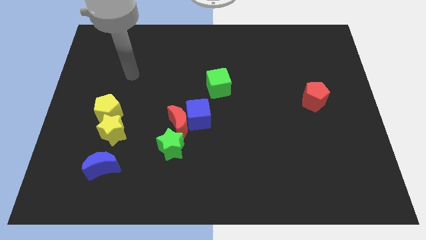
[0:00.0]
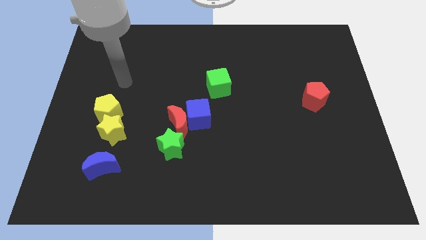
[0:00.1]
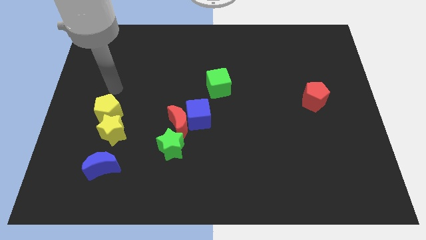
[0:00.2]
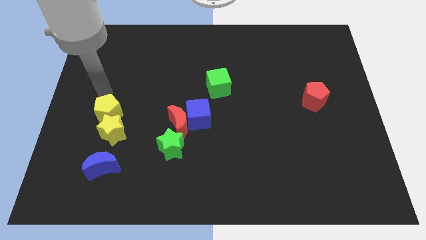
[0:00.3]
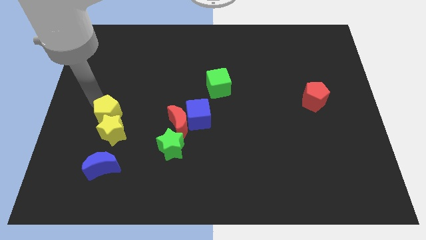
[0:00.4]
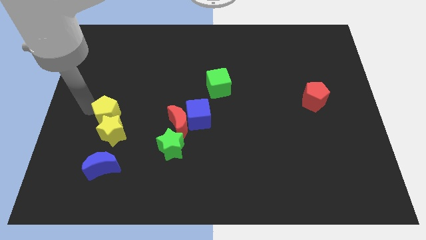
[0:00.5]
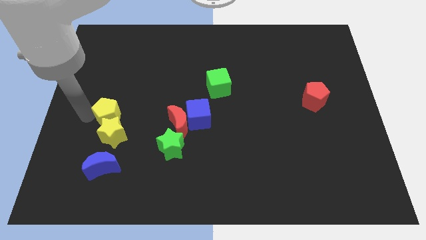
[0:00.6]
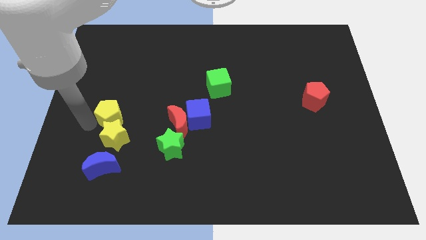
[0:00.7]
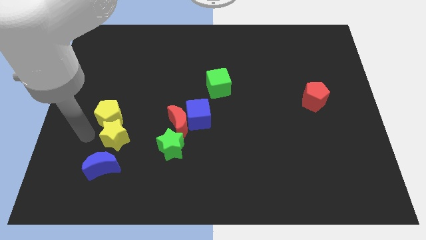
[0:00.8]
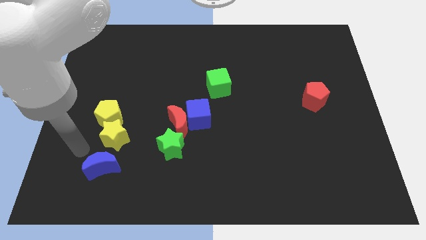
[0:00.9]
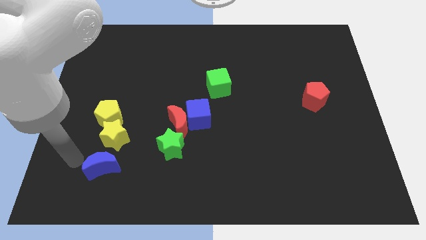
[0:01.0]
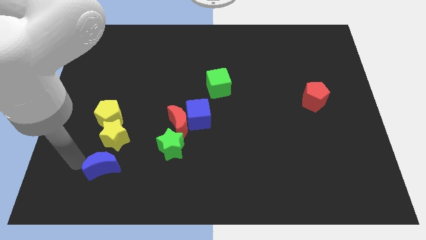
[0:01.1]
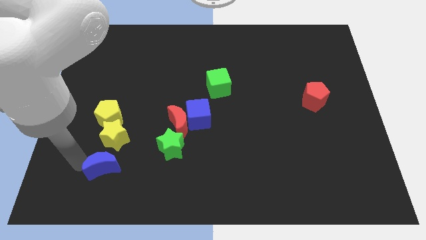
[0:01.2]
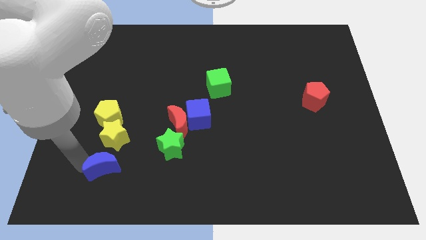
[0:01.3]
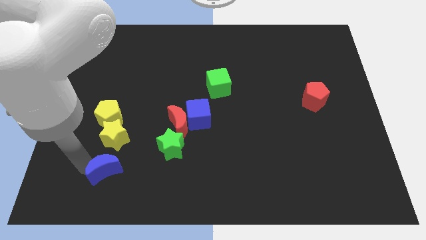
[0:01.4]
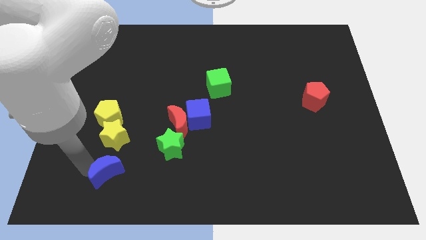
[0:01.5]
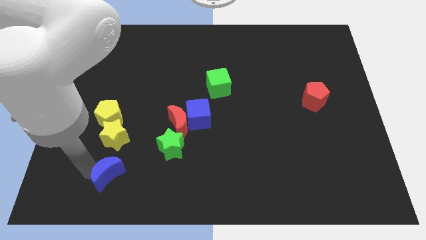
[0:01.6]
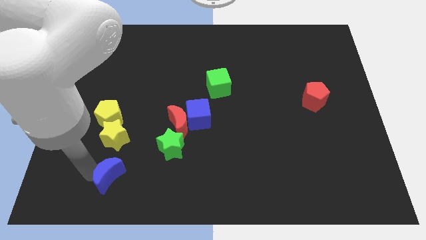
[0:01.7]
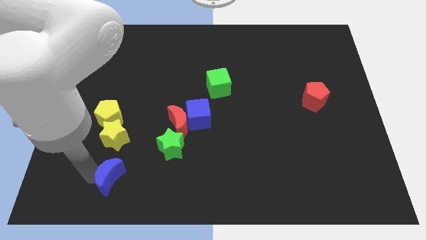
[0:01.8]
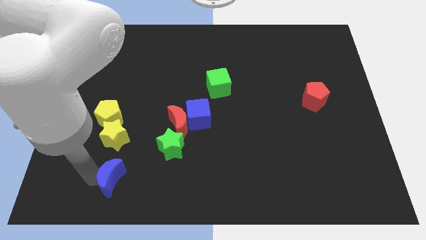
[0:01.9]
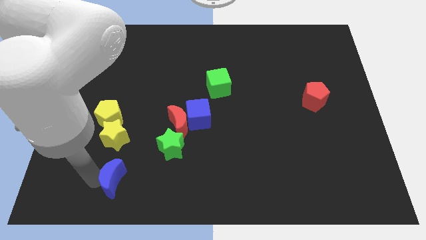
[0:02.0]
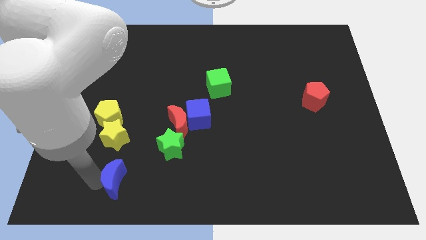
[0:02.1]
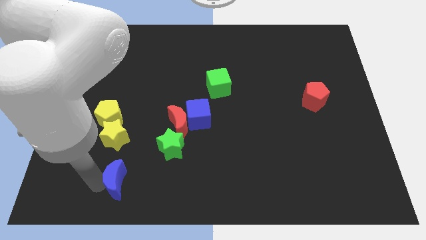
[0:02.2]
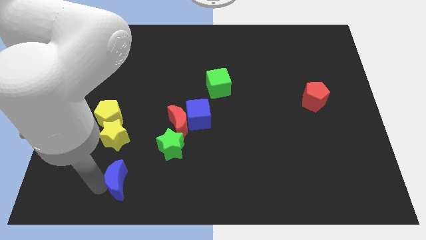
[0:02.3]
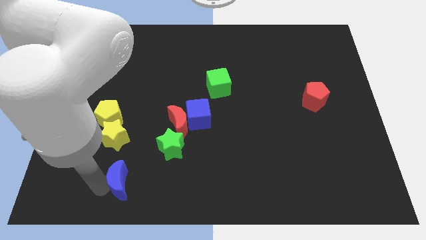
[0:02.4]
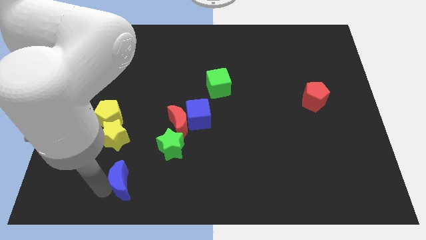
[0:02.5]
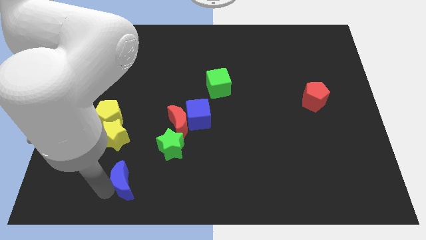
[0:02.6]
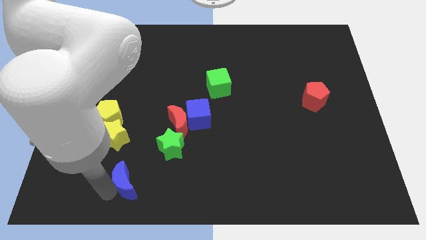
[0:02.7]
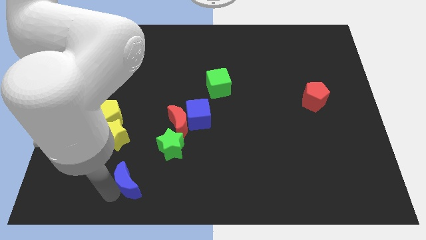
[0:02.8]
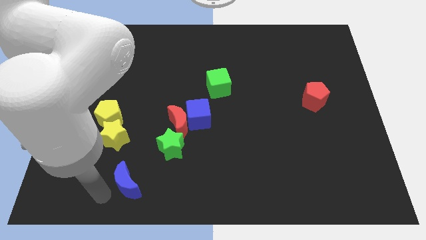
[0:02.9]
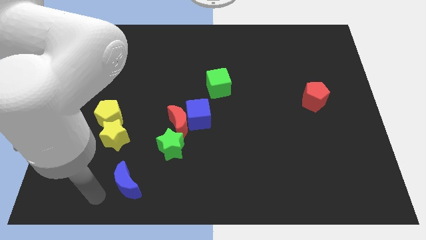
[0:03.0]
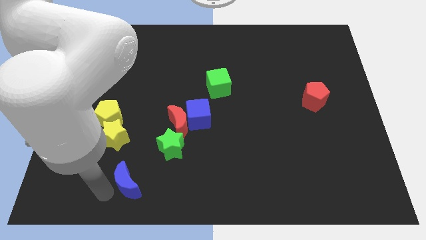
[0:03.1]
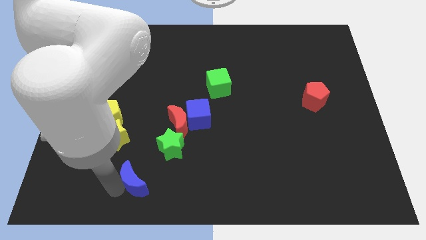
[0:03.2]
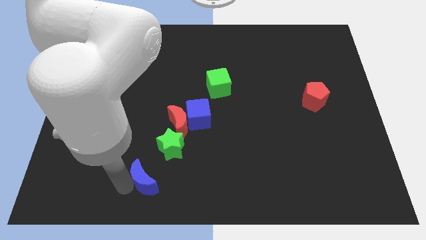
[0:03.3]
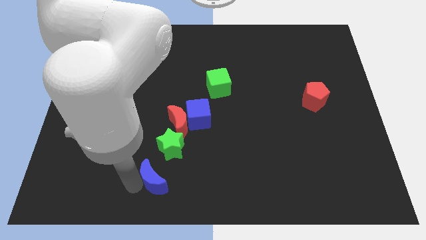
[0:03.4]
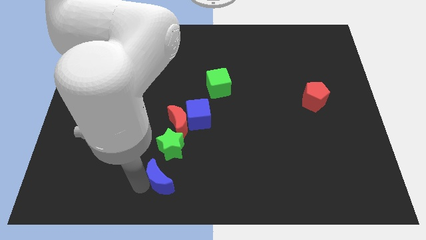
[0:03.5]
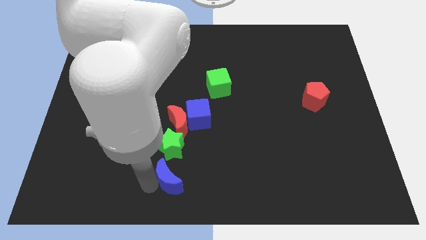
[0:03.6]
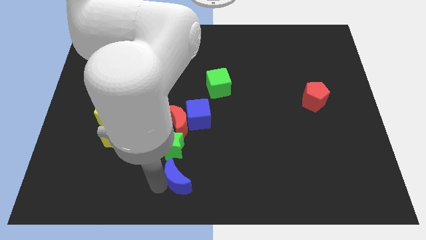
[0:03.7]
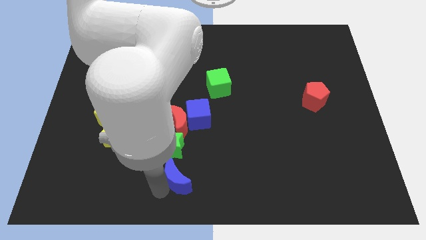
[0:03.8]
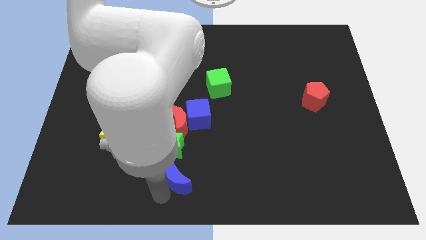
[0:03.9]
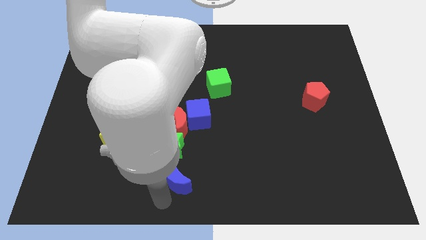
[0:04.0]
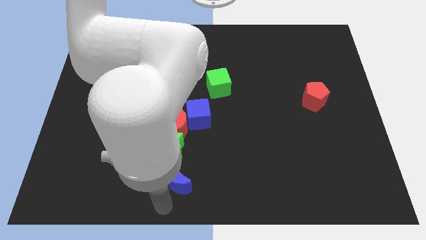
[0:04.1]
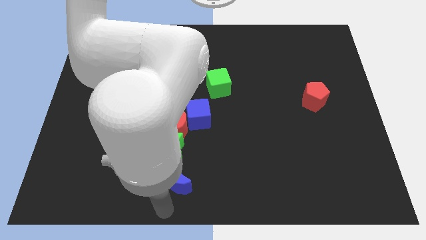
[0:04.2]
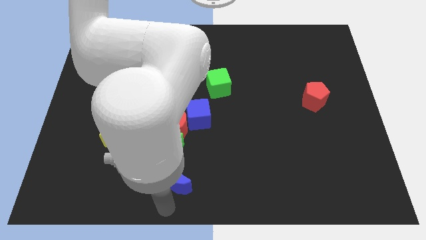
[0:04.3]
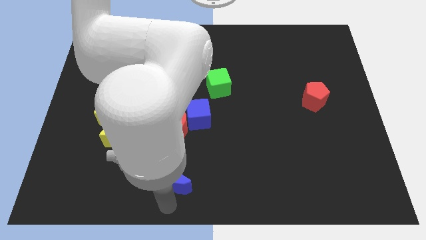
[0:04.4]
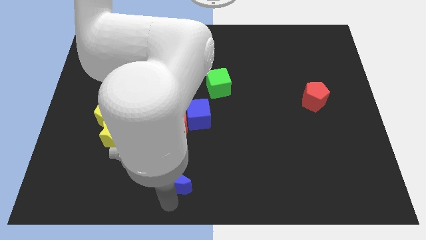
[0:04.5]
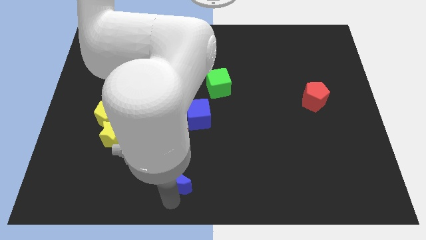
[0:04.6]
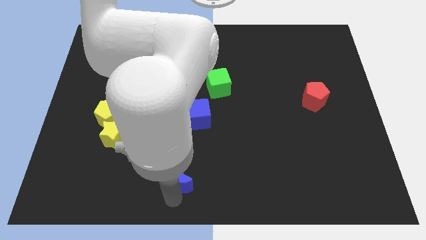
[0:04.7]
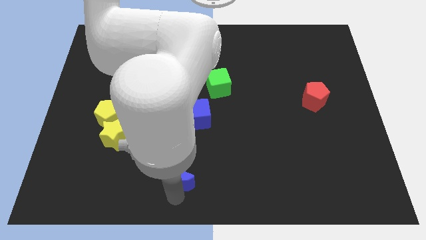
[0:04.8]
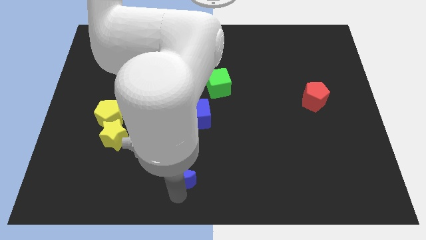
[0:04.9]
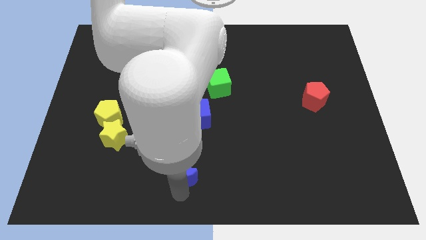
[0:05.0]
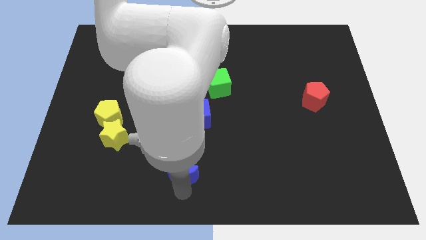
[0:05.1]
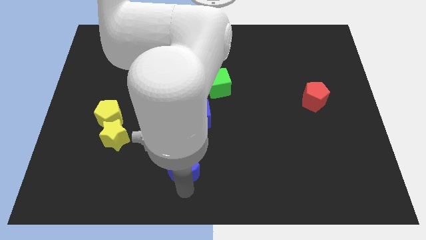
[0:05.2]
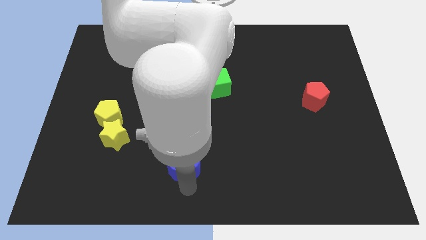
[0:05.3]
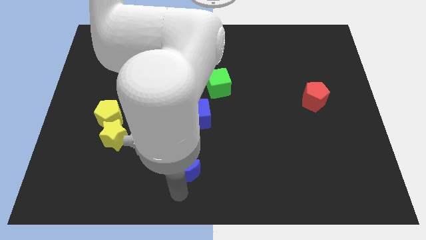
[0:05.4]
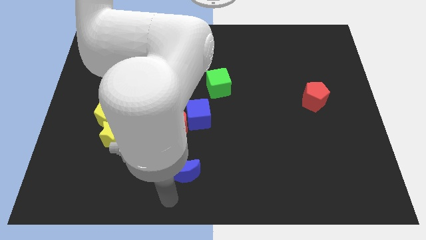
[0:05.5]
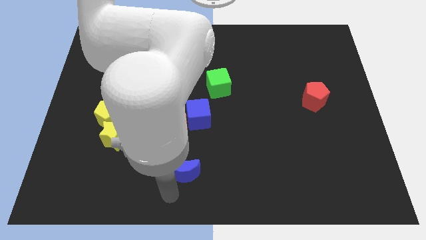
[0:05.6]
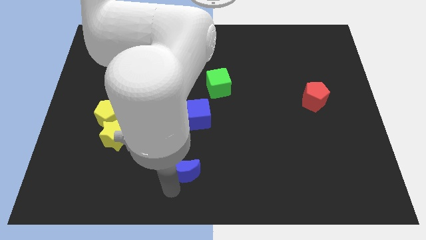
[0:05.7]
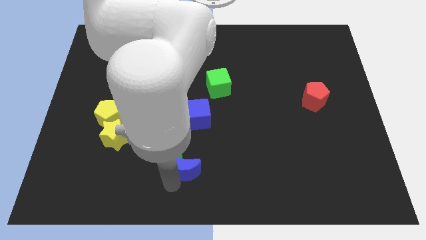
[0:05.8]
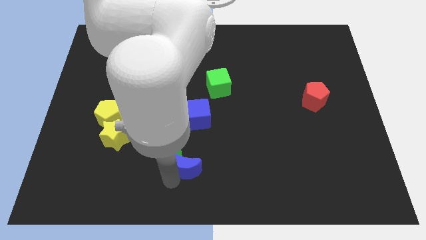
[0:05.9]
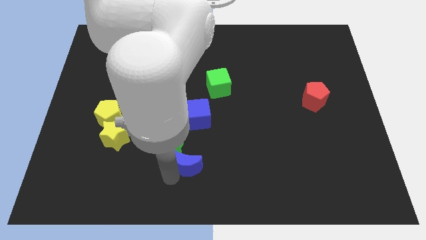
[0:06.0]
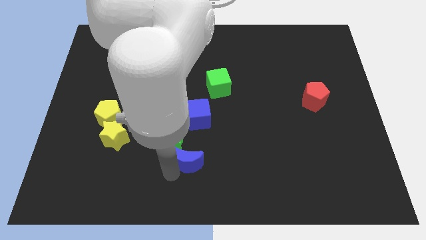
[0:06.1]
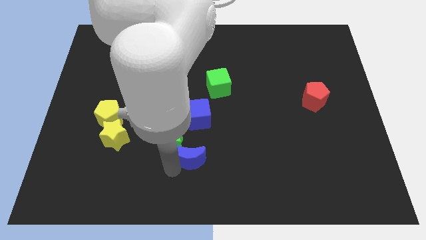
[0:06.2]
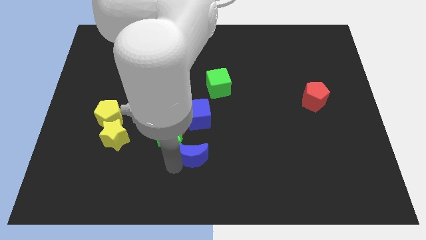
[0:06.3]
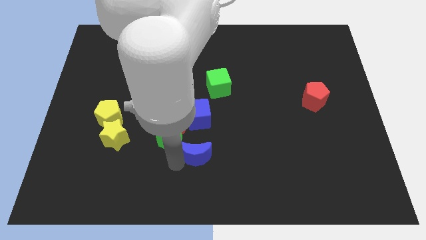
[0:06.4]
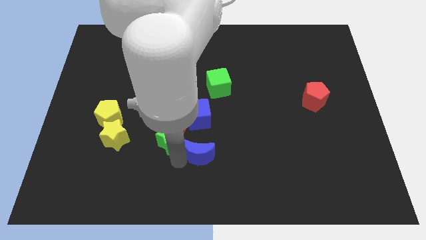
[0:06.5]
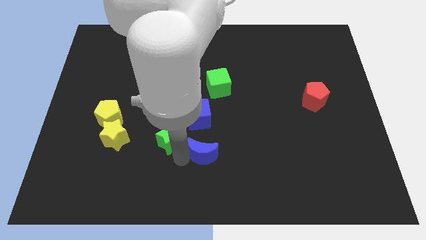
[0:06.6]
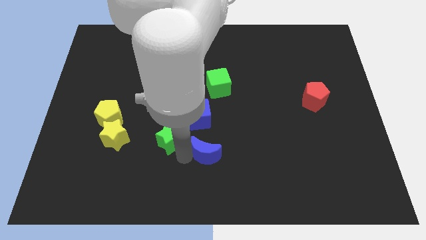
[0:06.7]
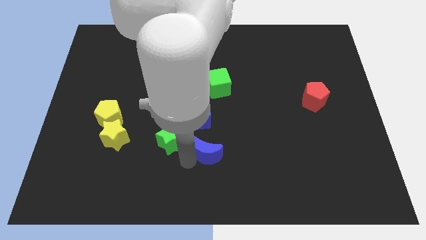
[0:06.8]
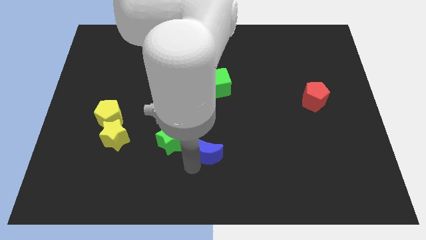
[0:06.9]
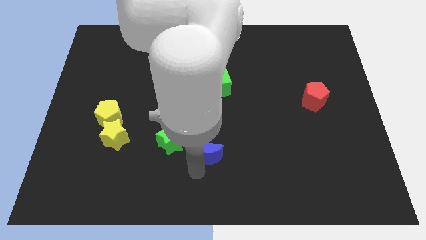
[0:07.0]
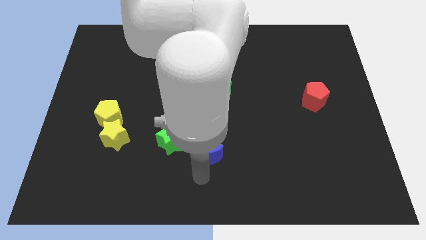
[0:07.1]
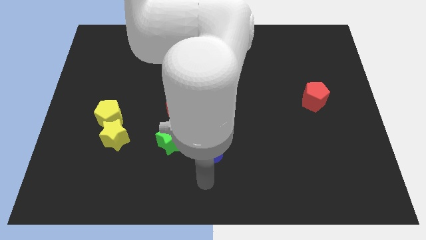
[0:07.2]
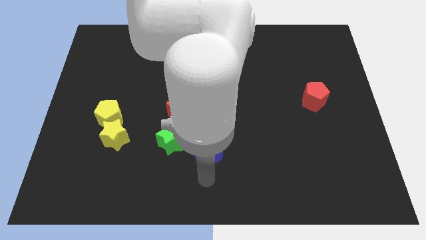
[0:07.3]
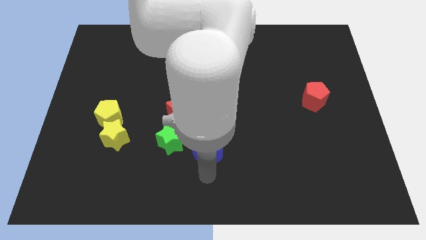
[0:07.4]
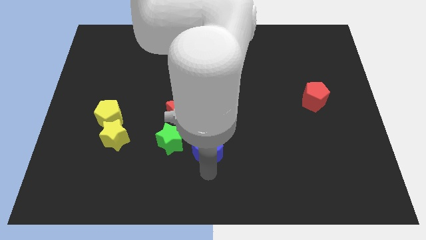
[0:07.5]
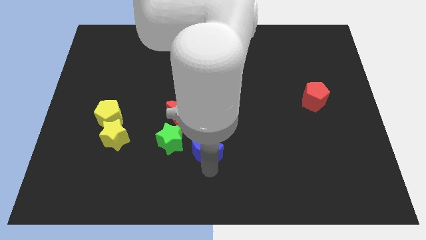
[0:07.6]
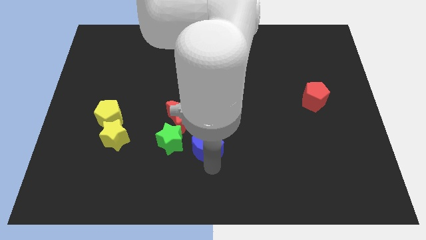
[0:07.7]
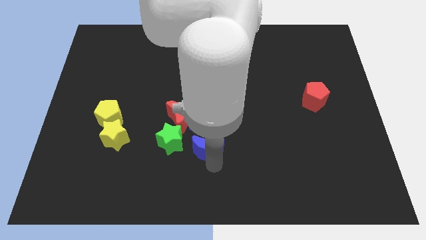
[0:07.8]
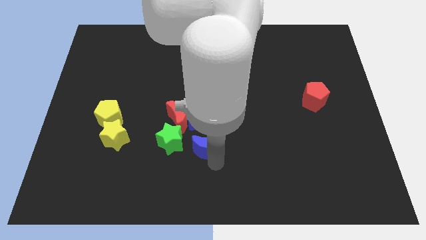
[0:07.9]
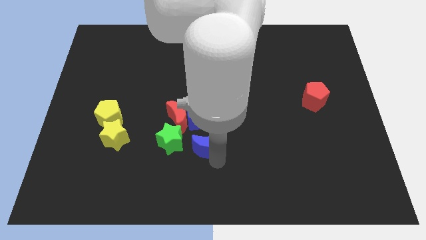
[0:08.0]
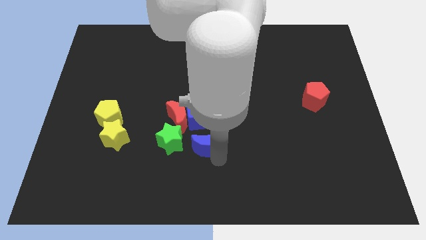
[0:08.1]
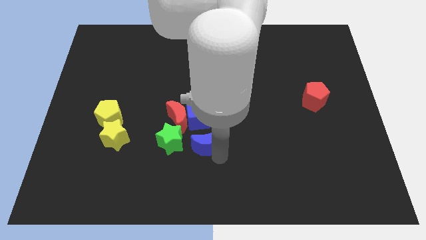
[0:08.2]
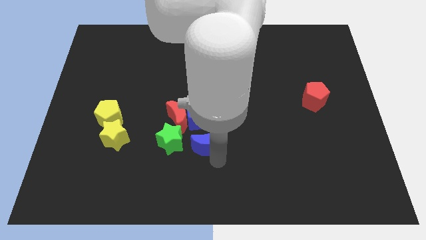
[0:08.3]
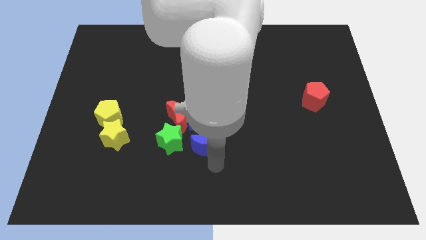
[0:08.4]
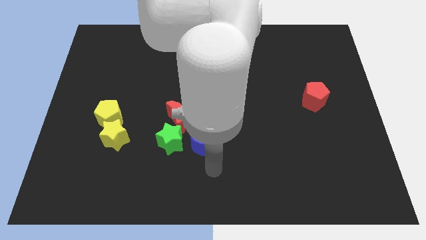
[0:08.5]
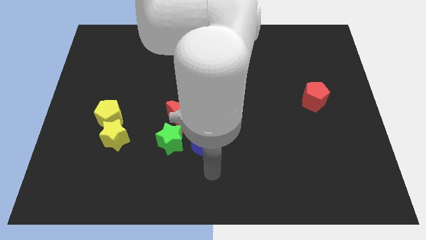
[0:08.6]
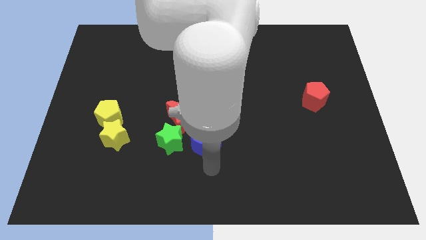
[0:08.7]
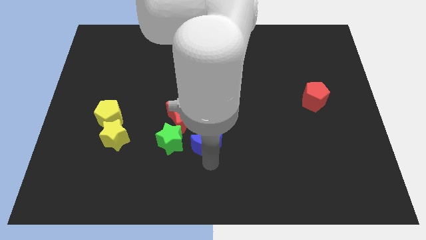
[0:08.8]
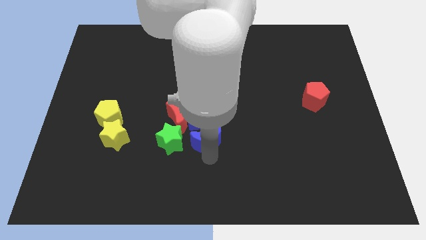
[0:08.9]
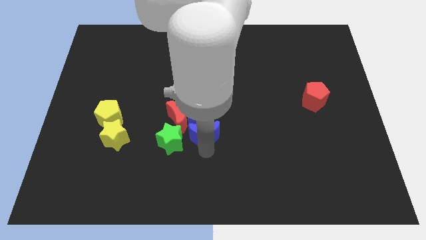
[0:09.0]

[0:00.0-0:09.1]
put the blue moon to the right of the red moon
